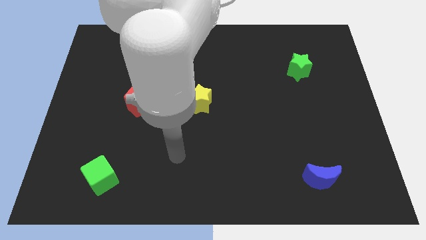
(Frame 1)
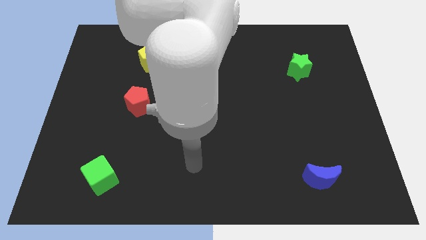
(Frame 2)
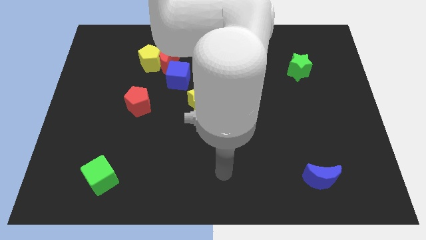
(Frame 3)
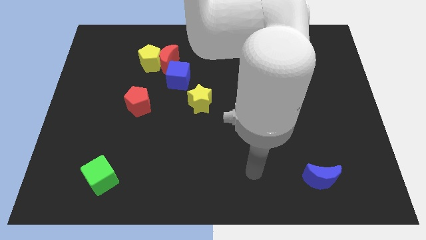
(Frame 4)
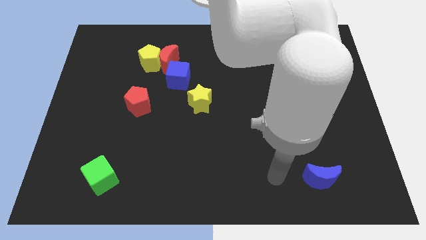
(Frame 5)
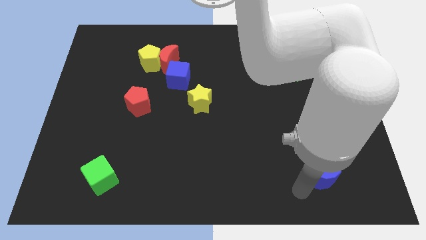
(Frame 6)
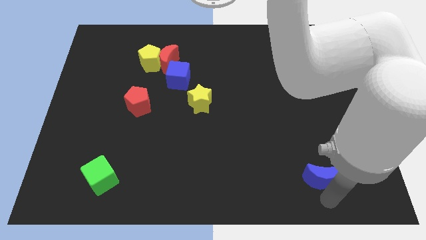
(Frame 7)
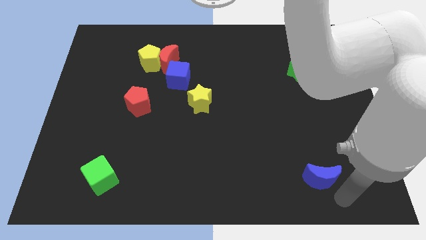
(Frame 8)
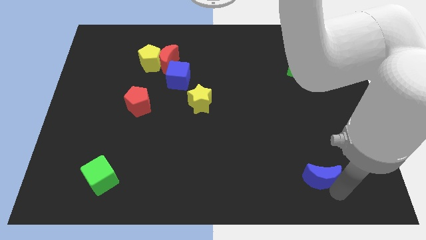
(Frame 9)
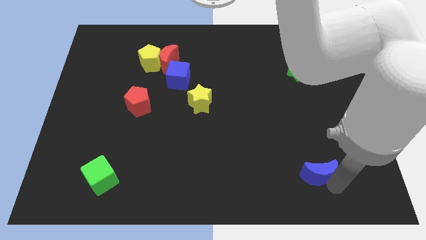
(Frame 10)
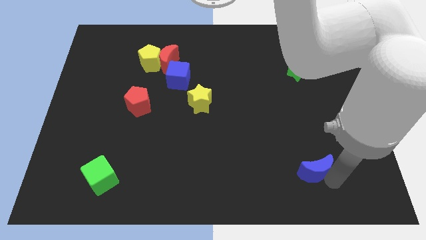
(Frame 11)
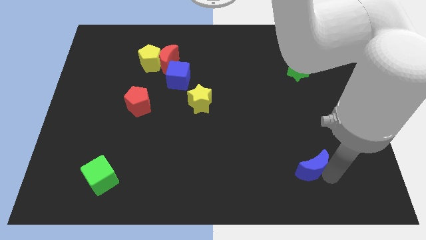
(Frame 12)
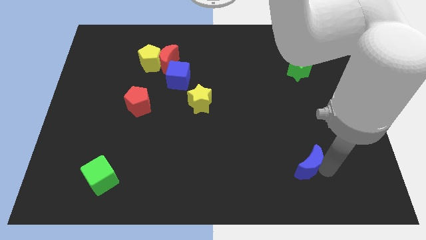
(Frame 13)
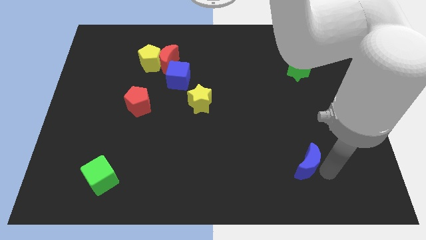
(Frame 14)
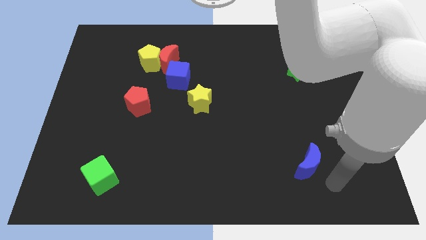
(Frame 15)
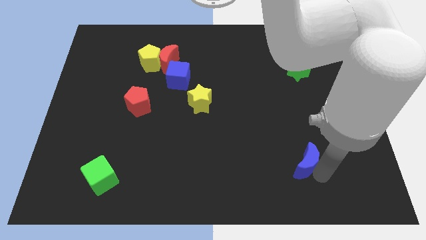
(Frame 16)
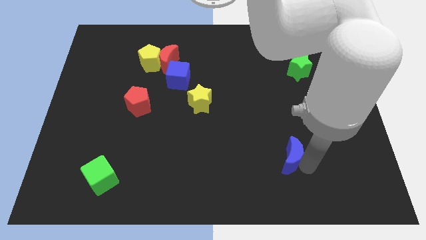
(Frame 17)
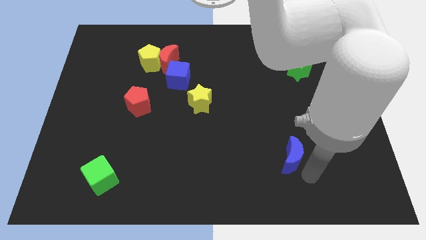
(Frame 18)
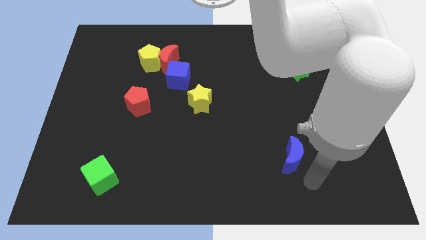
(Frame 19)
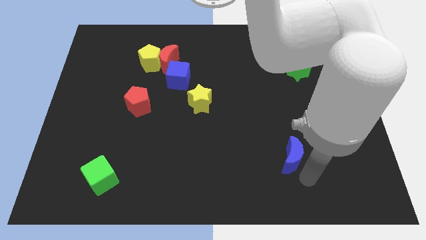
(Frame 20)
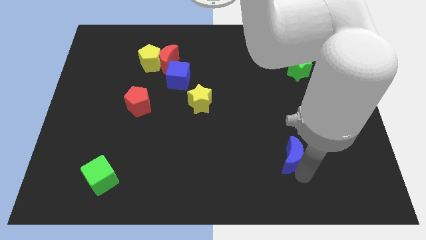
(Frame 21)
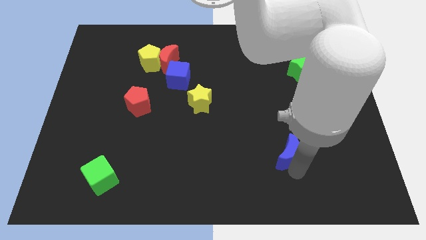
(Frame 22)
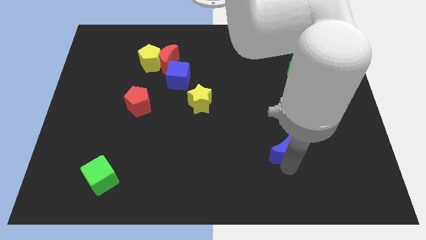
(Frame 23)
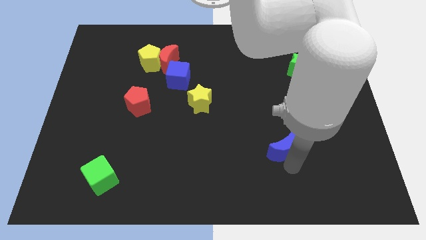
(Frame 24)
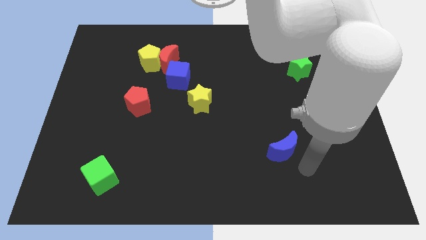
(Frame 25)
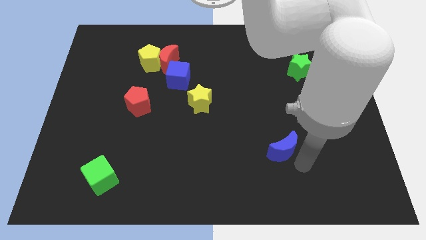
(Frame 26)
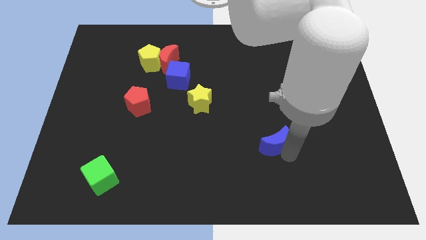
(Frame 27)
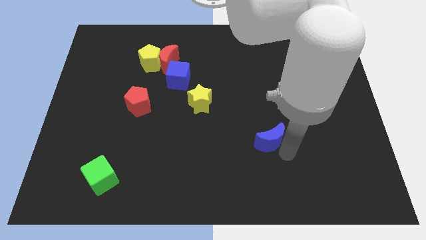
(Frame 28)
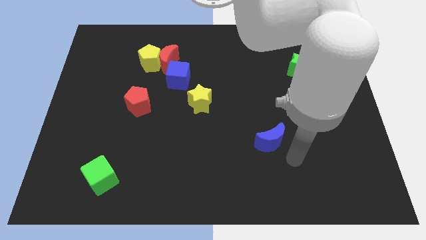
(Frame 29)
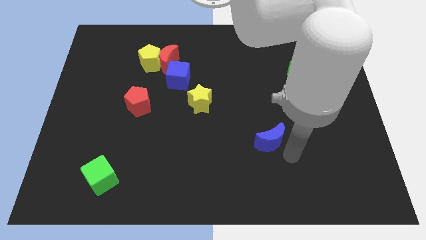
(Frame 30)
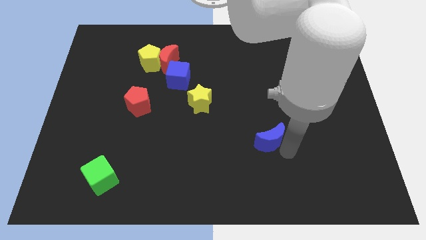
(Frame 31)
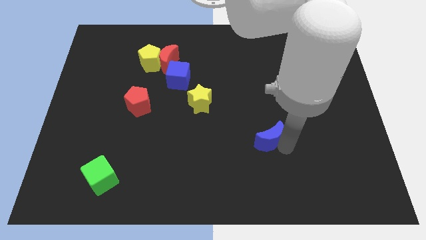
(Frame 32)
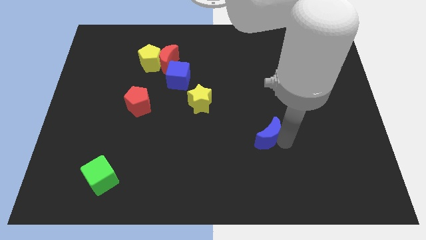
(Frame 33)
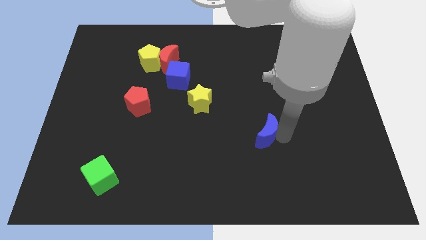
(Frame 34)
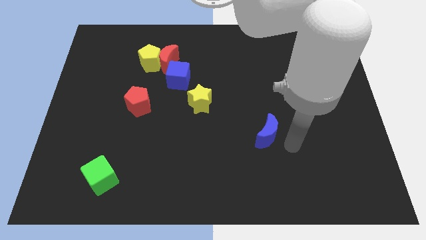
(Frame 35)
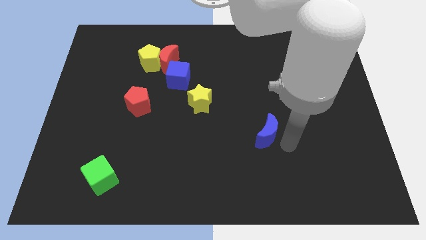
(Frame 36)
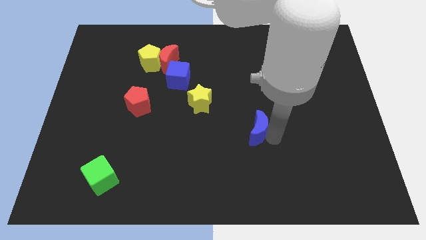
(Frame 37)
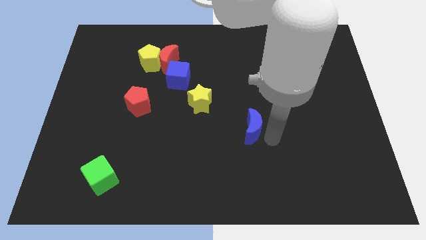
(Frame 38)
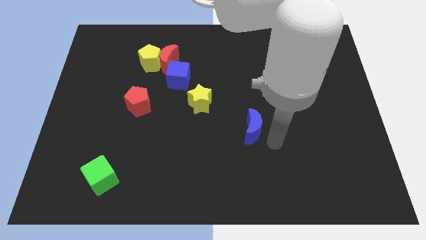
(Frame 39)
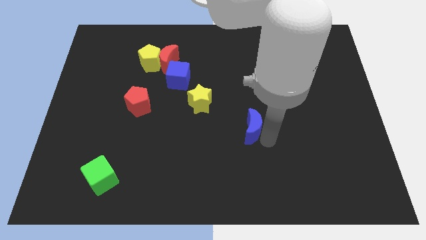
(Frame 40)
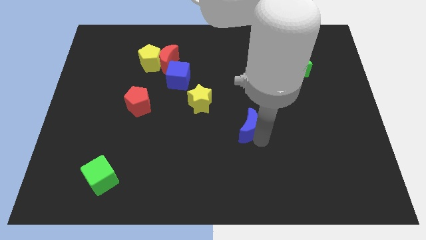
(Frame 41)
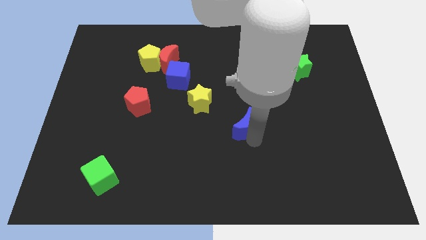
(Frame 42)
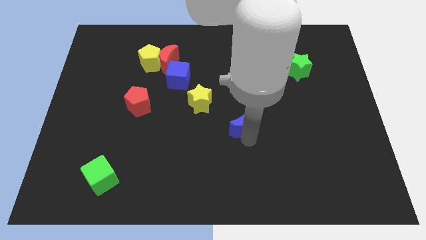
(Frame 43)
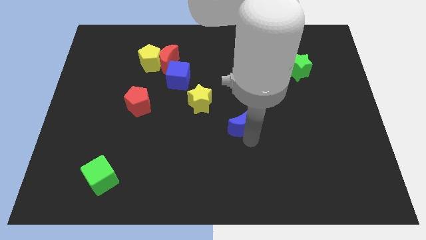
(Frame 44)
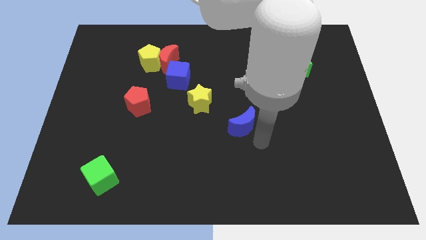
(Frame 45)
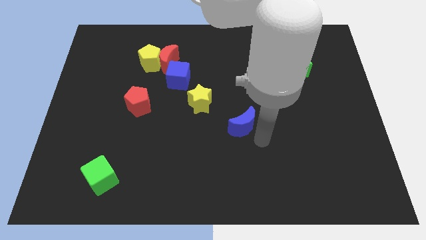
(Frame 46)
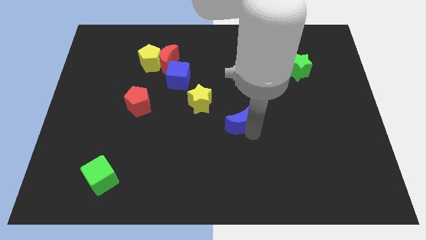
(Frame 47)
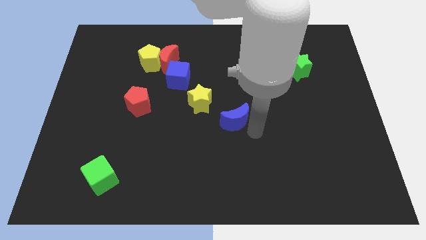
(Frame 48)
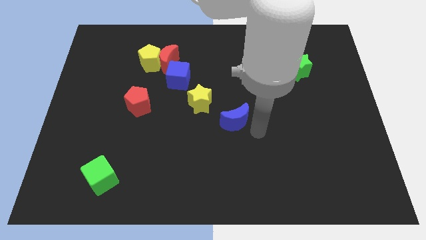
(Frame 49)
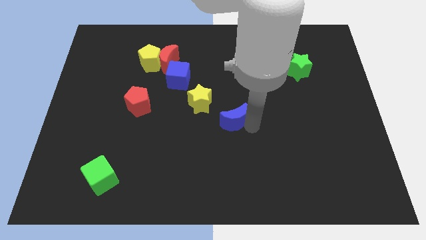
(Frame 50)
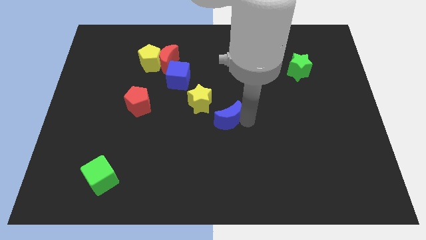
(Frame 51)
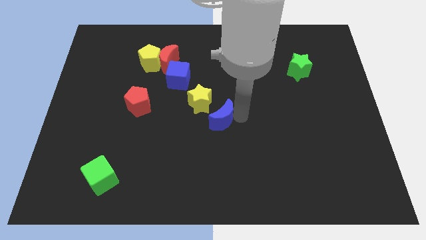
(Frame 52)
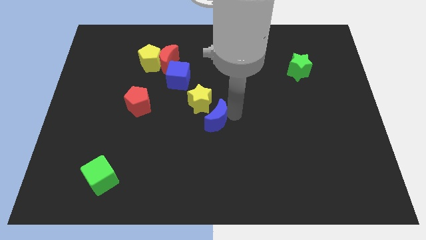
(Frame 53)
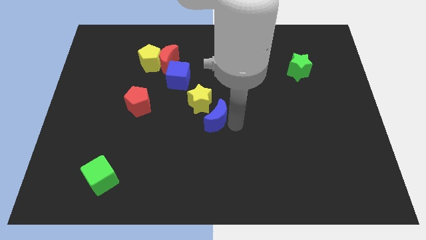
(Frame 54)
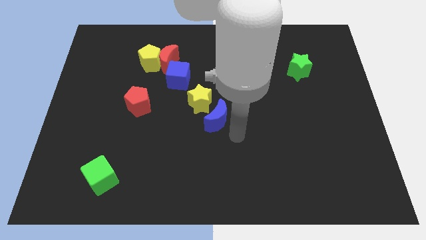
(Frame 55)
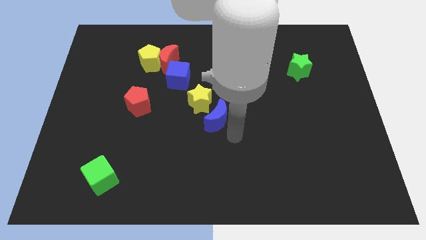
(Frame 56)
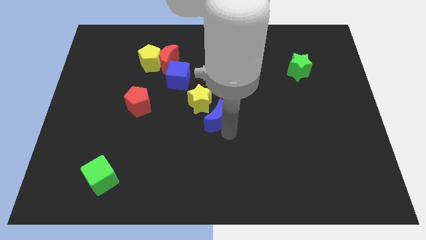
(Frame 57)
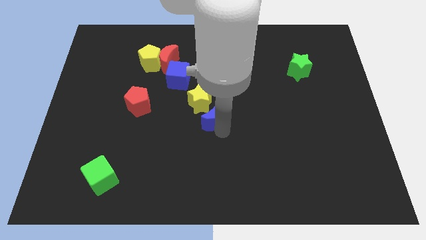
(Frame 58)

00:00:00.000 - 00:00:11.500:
push the blue moon close to the yellow star
